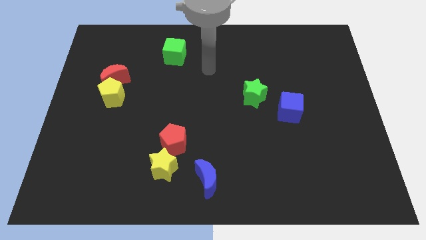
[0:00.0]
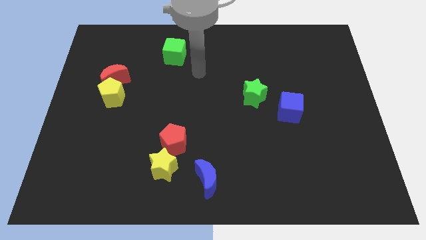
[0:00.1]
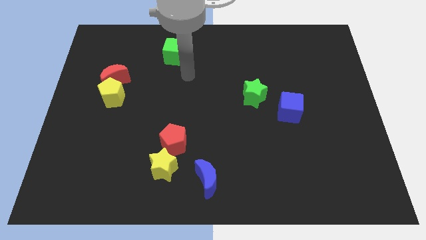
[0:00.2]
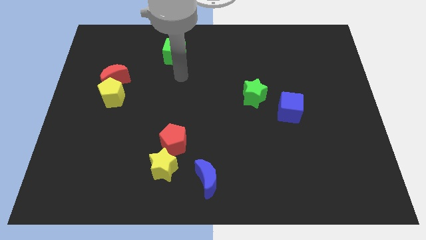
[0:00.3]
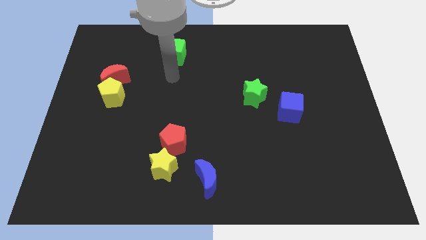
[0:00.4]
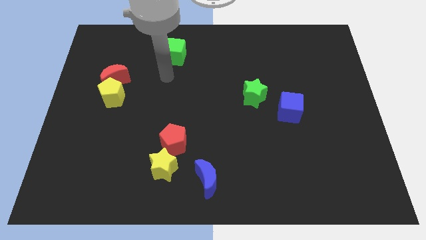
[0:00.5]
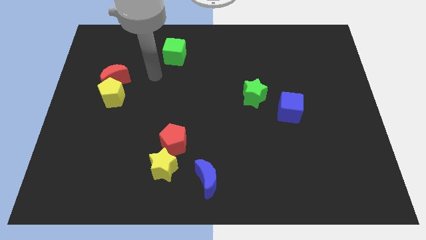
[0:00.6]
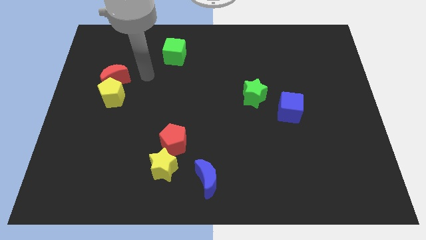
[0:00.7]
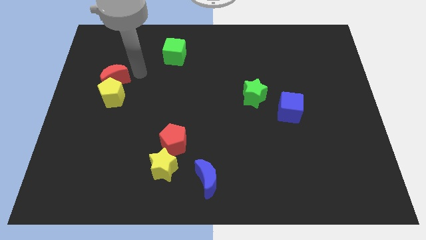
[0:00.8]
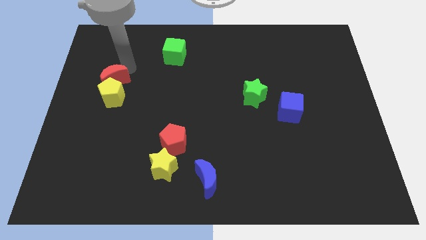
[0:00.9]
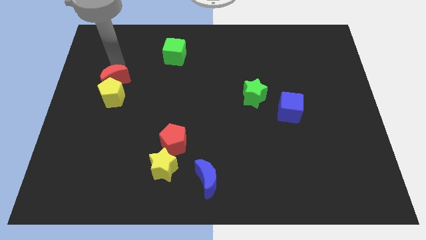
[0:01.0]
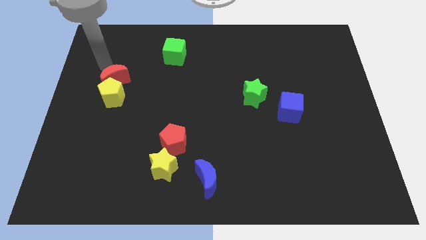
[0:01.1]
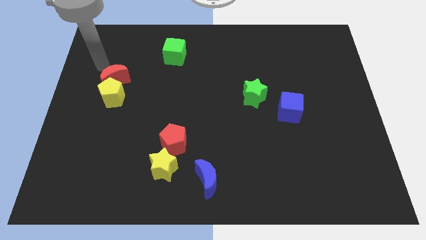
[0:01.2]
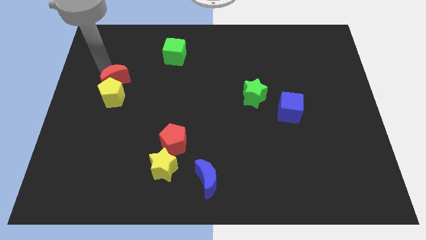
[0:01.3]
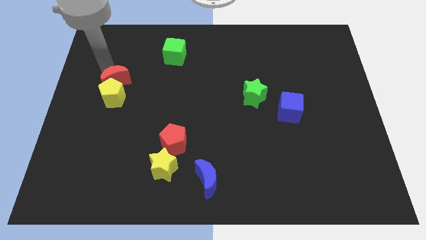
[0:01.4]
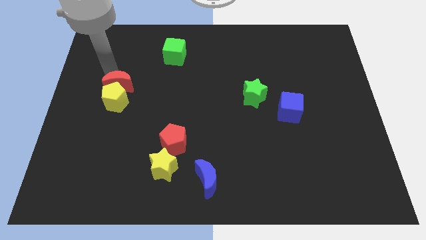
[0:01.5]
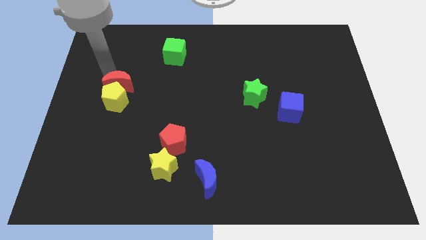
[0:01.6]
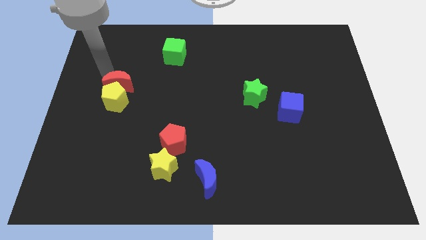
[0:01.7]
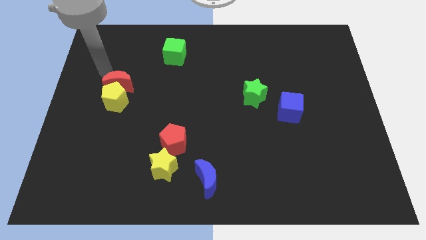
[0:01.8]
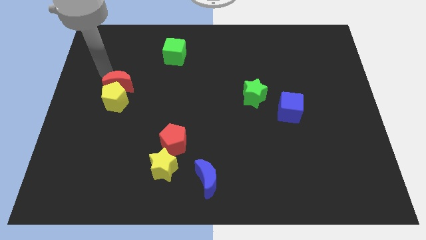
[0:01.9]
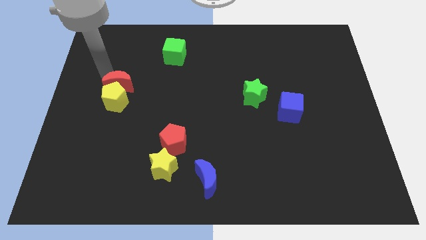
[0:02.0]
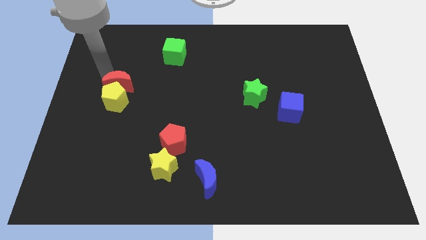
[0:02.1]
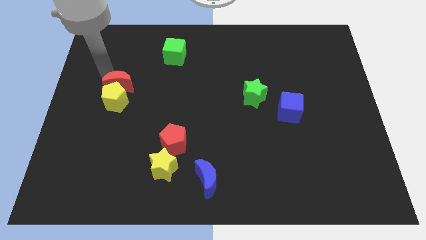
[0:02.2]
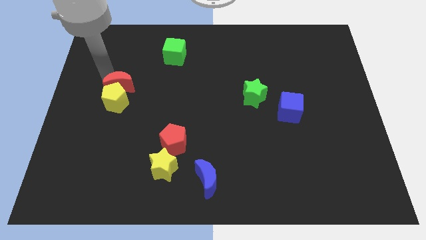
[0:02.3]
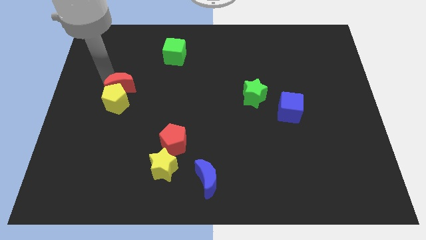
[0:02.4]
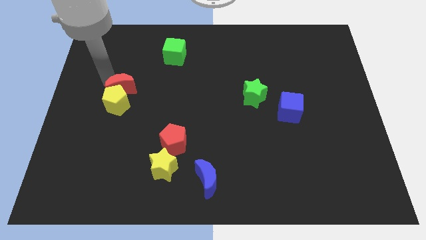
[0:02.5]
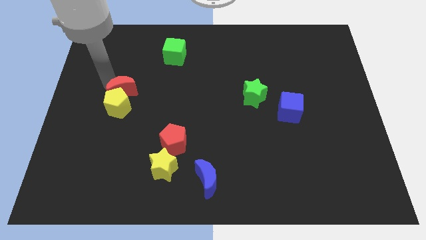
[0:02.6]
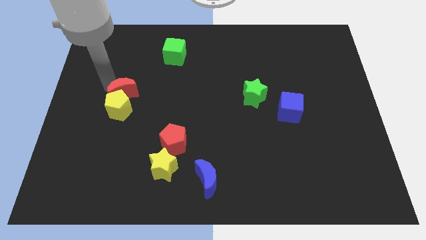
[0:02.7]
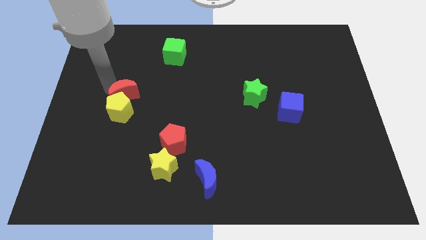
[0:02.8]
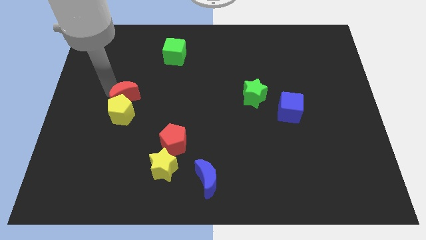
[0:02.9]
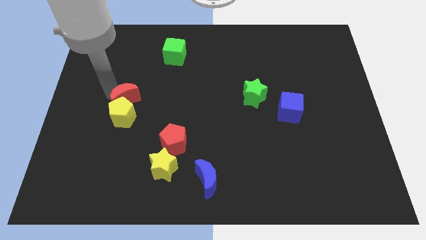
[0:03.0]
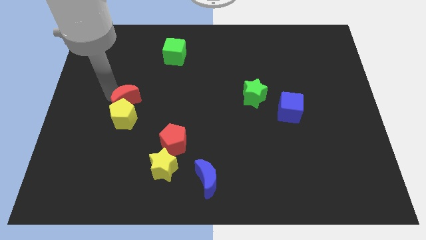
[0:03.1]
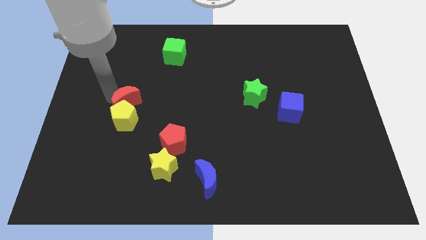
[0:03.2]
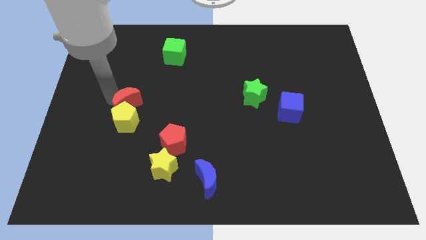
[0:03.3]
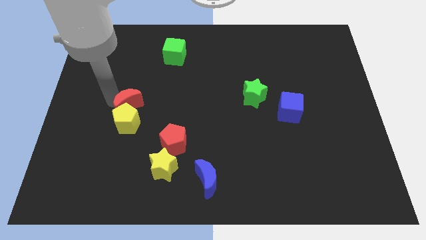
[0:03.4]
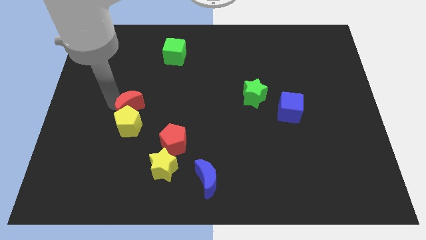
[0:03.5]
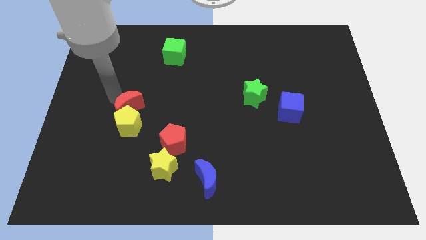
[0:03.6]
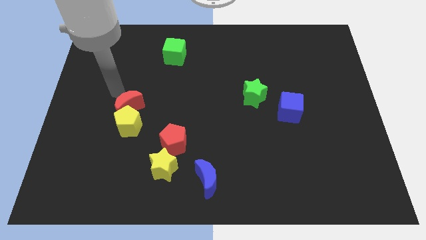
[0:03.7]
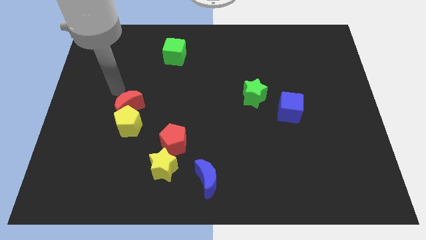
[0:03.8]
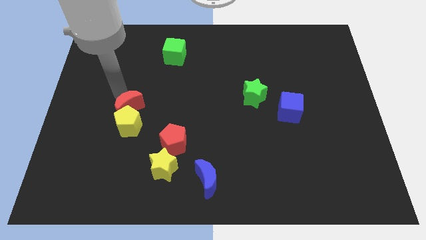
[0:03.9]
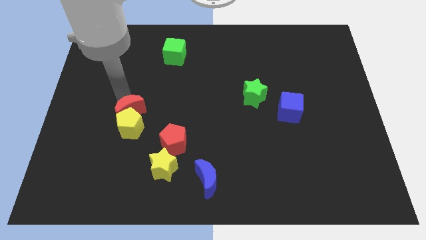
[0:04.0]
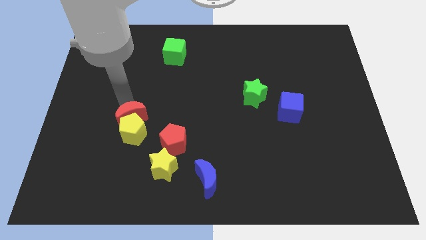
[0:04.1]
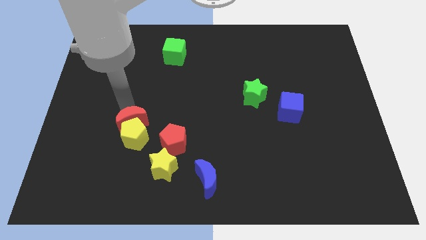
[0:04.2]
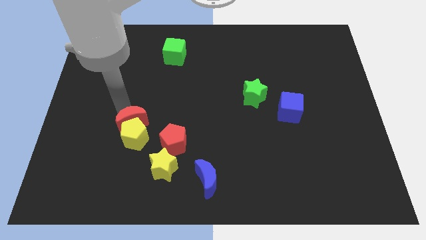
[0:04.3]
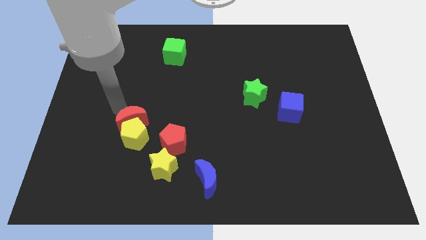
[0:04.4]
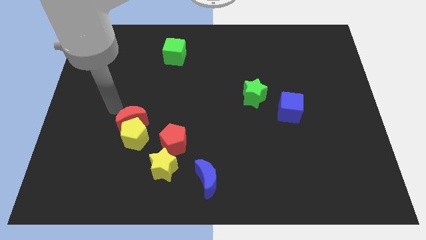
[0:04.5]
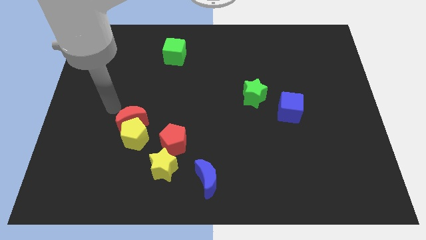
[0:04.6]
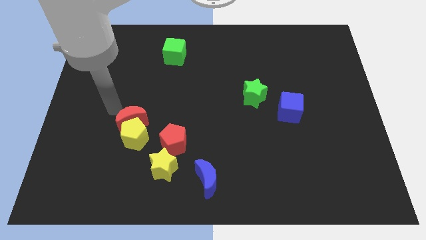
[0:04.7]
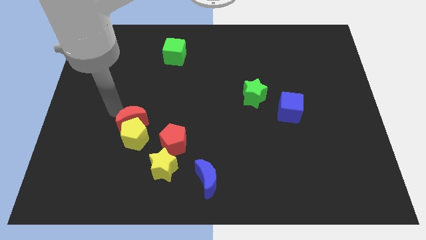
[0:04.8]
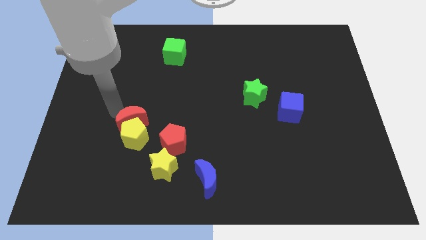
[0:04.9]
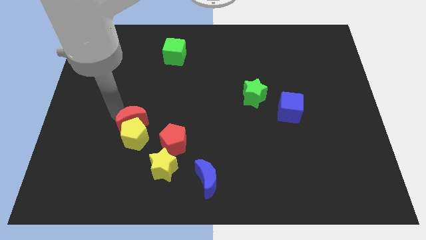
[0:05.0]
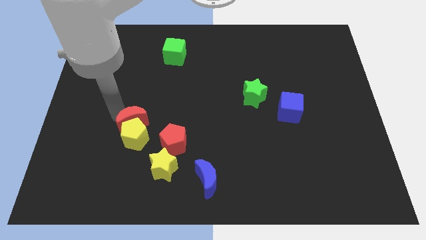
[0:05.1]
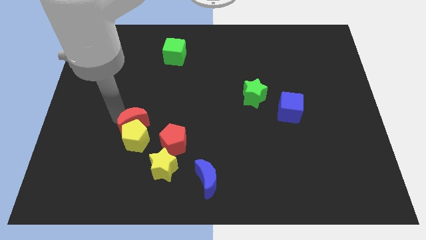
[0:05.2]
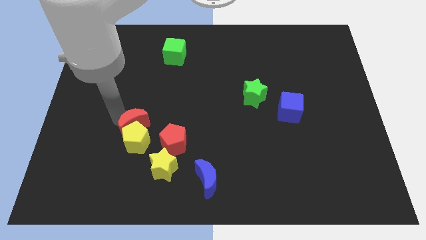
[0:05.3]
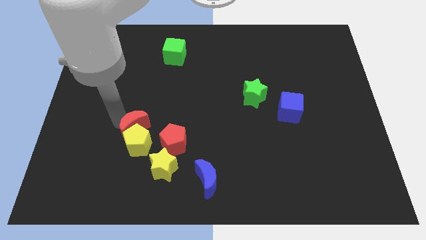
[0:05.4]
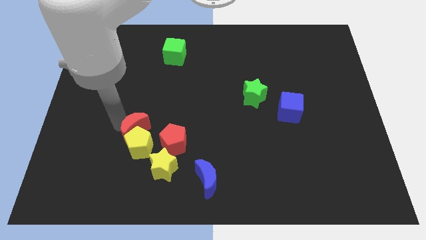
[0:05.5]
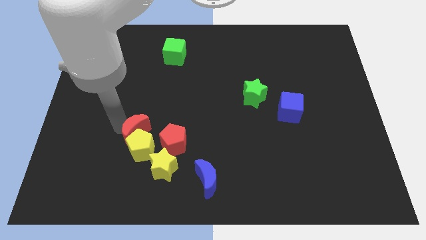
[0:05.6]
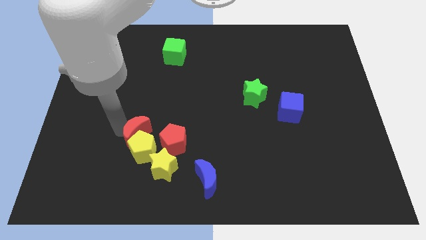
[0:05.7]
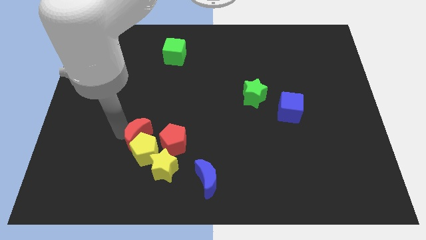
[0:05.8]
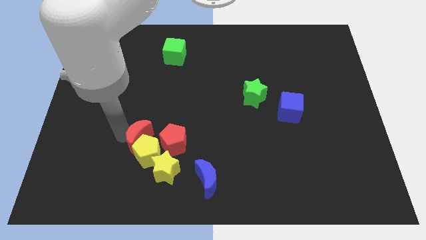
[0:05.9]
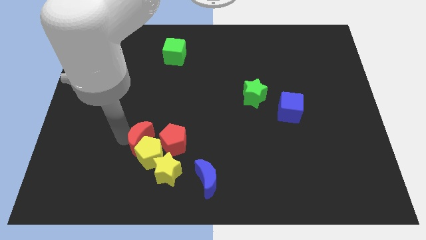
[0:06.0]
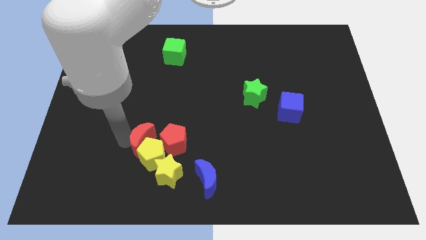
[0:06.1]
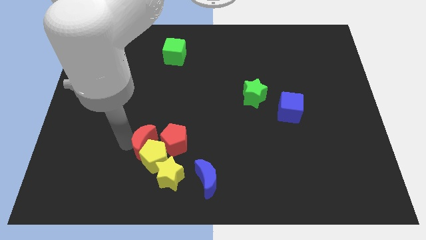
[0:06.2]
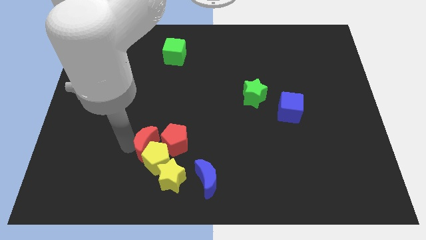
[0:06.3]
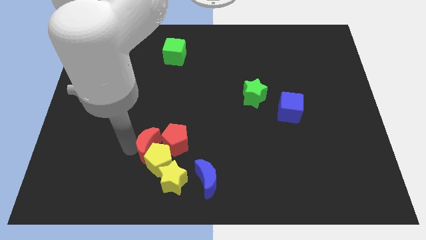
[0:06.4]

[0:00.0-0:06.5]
put the red moon to the red pentagon

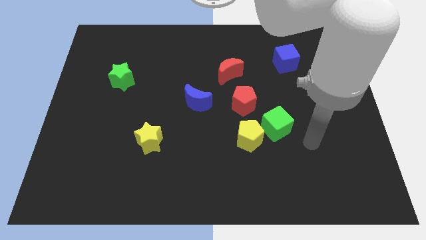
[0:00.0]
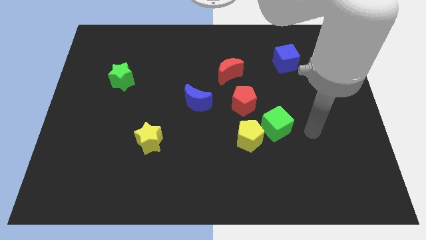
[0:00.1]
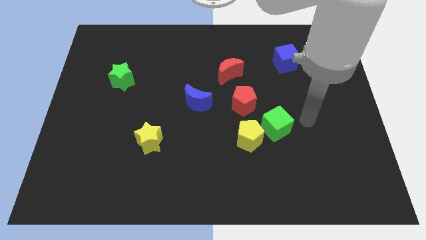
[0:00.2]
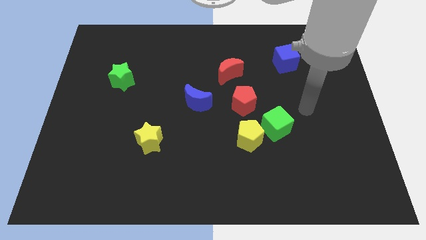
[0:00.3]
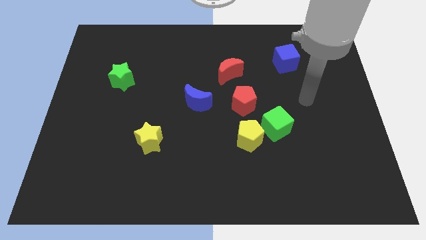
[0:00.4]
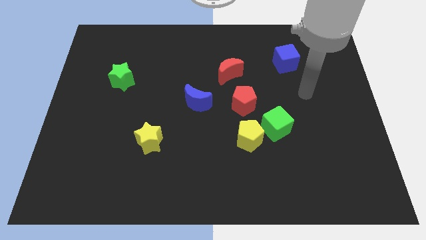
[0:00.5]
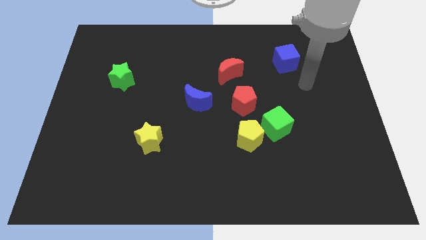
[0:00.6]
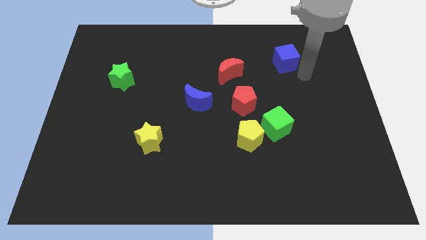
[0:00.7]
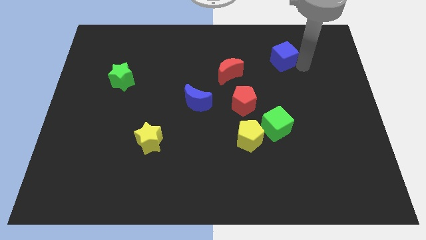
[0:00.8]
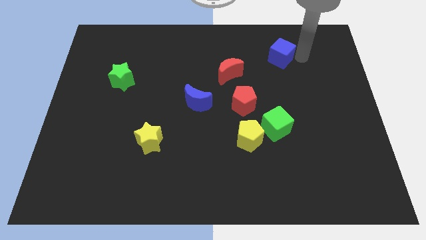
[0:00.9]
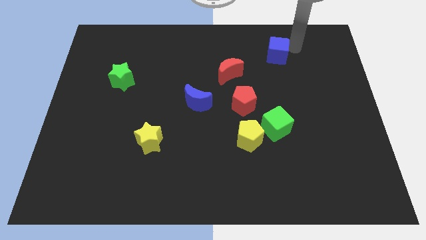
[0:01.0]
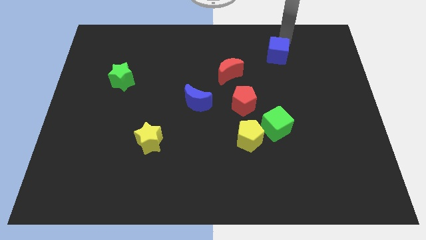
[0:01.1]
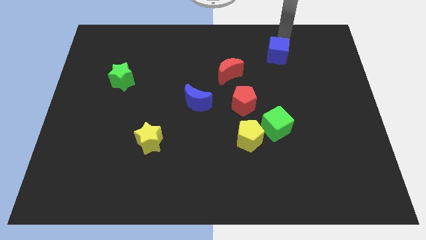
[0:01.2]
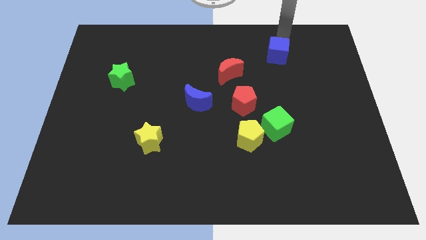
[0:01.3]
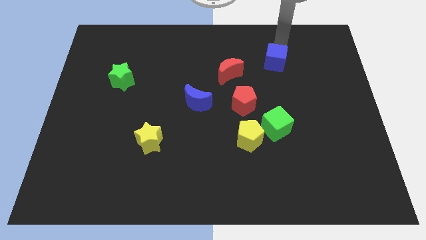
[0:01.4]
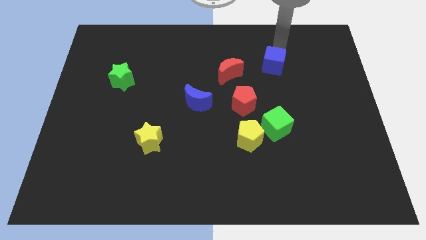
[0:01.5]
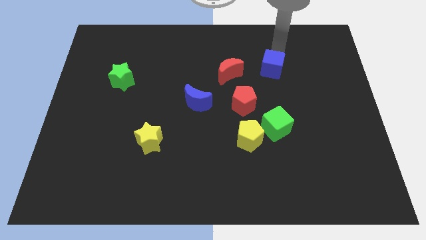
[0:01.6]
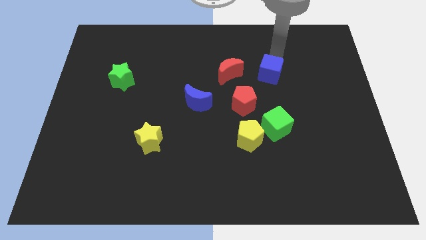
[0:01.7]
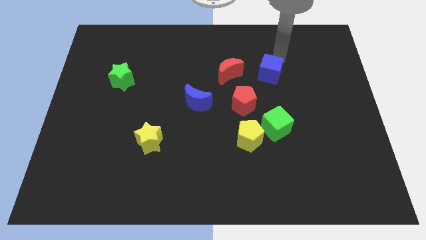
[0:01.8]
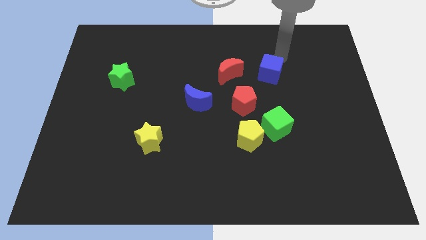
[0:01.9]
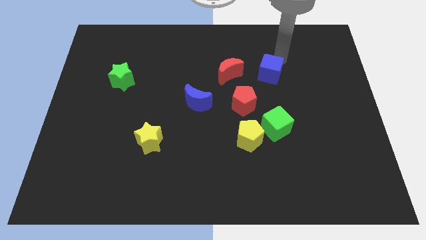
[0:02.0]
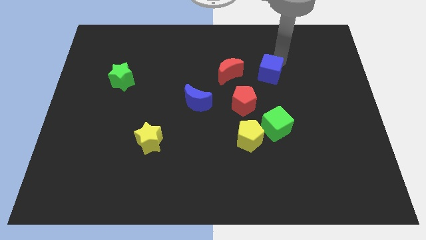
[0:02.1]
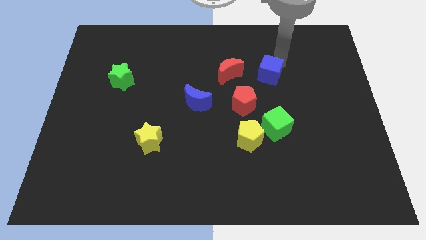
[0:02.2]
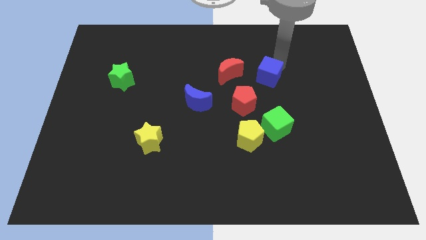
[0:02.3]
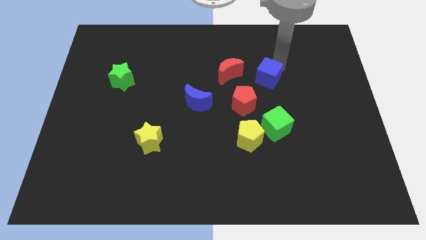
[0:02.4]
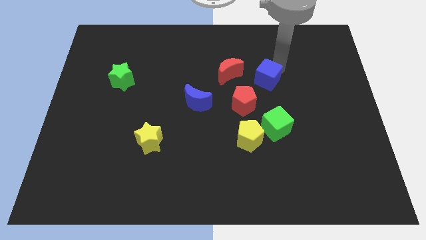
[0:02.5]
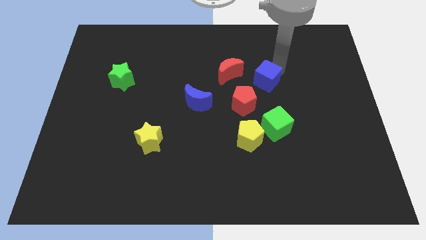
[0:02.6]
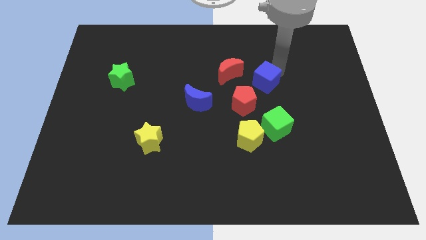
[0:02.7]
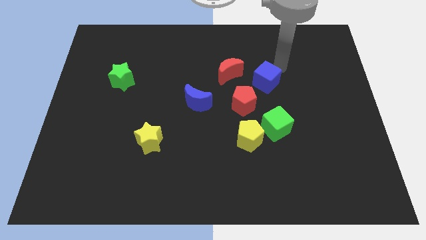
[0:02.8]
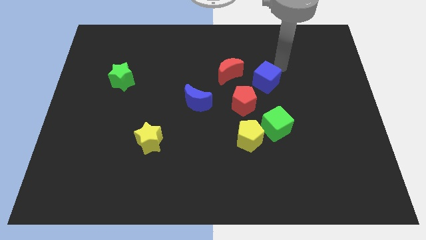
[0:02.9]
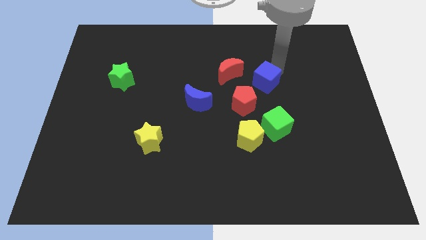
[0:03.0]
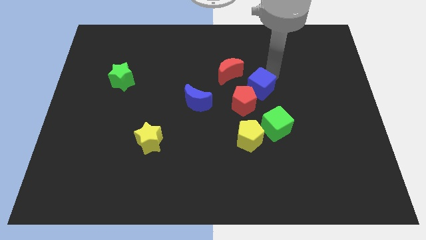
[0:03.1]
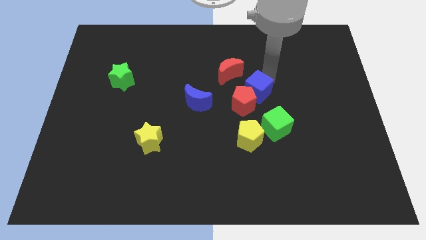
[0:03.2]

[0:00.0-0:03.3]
push the blue cube next to the red pentagon
